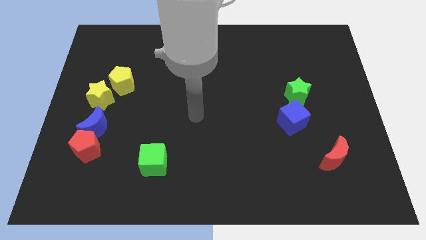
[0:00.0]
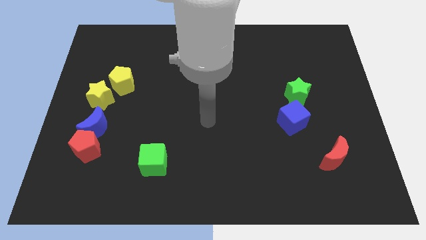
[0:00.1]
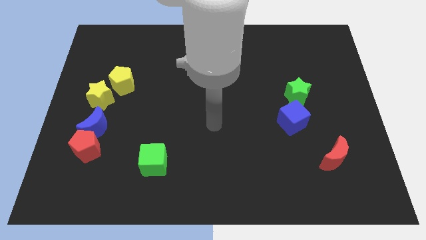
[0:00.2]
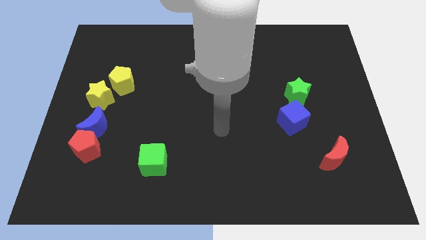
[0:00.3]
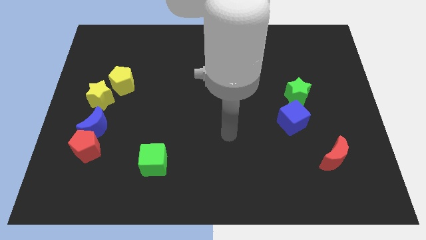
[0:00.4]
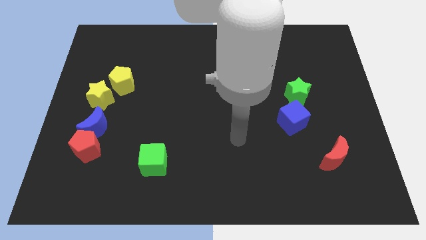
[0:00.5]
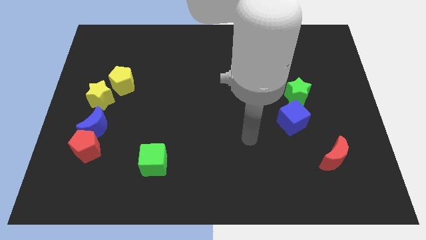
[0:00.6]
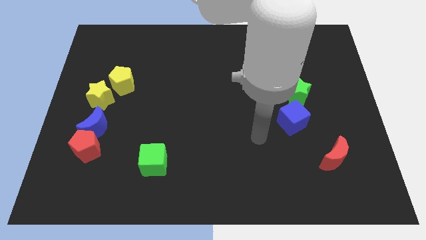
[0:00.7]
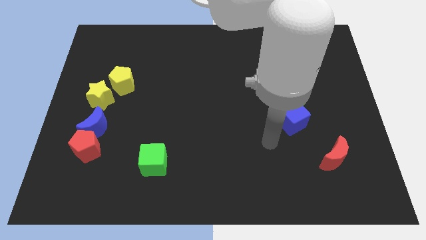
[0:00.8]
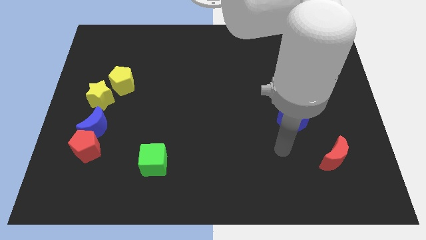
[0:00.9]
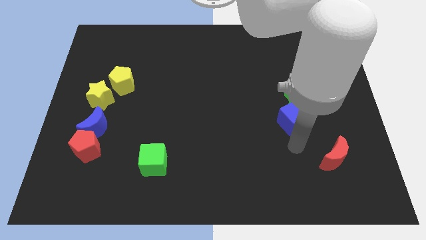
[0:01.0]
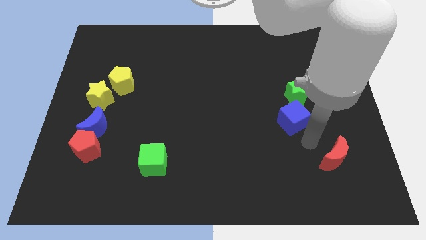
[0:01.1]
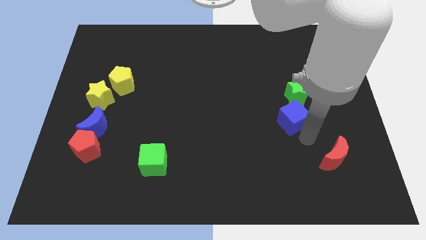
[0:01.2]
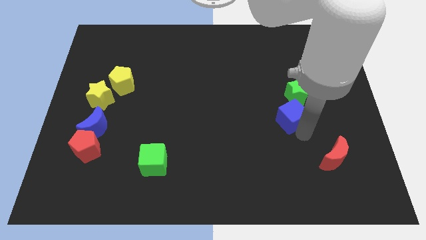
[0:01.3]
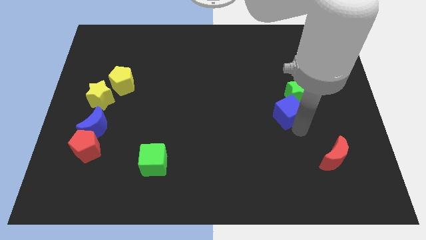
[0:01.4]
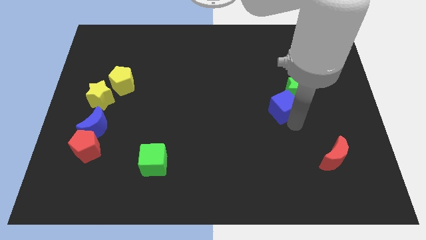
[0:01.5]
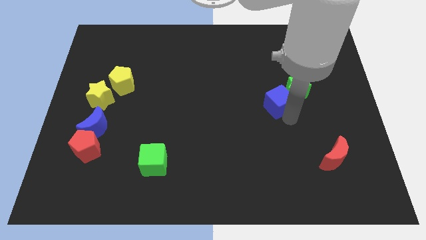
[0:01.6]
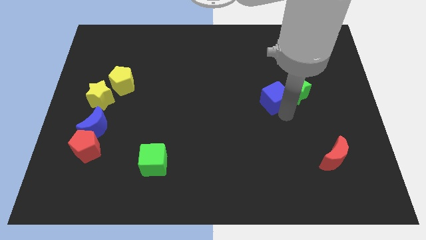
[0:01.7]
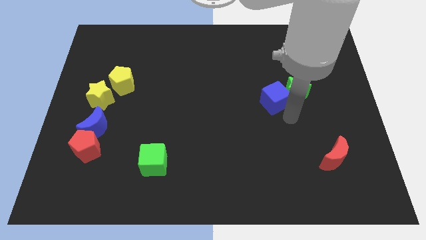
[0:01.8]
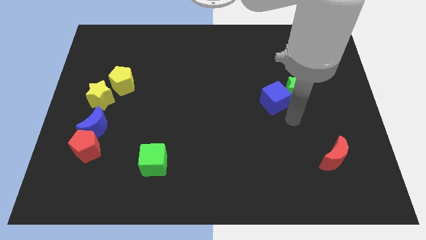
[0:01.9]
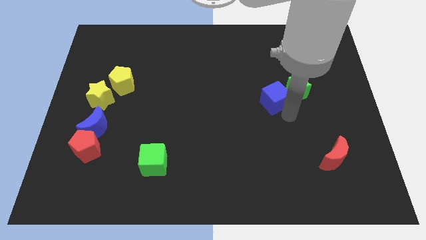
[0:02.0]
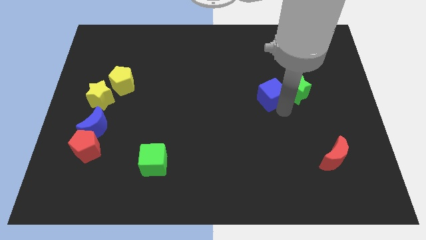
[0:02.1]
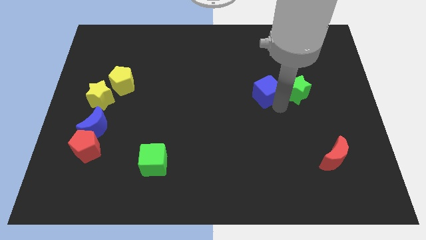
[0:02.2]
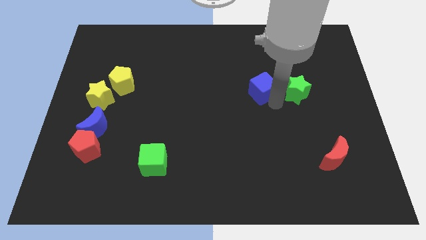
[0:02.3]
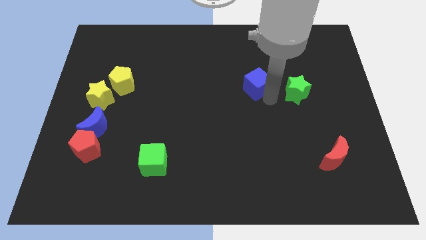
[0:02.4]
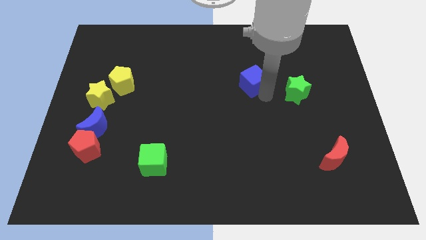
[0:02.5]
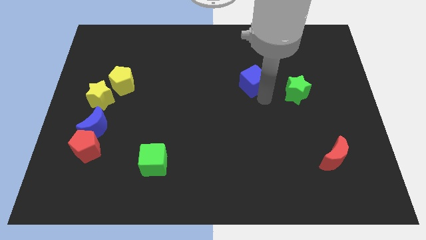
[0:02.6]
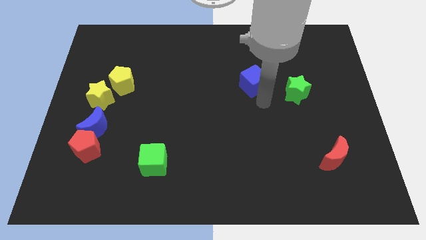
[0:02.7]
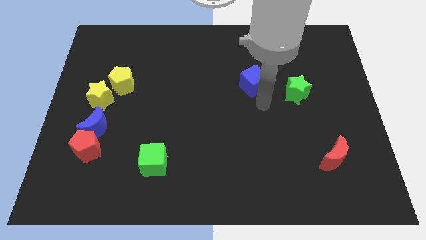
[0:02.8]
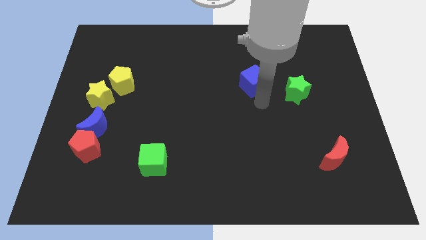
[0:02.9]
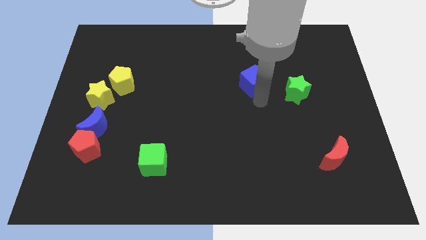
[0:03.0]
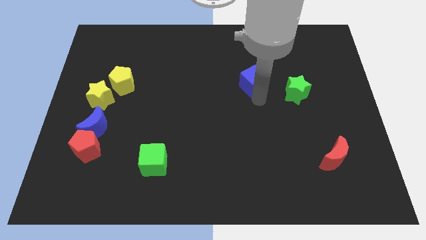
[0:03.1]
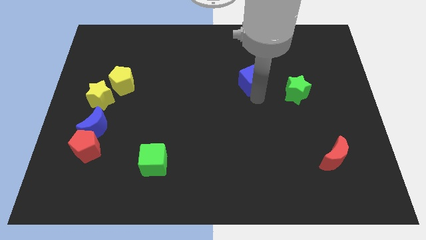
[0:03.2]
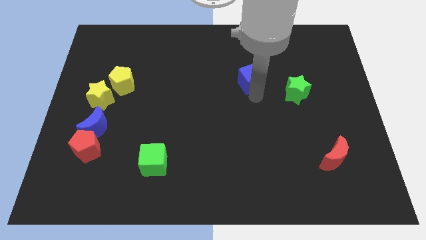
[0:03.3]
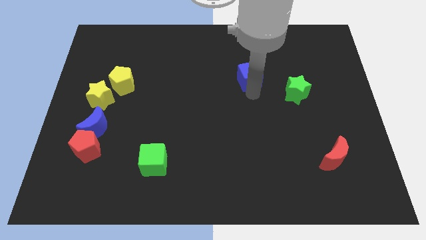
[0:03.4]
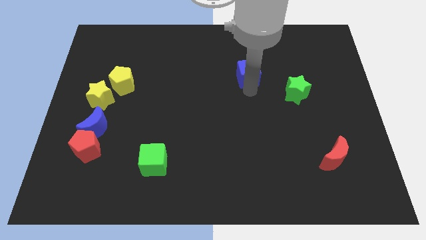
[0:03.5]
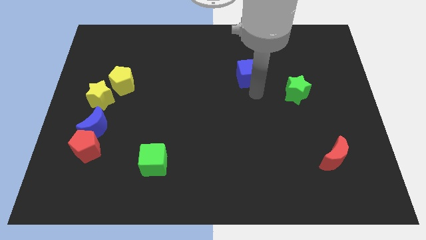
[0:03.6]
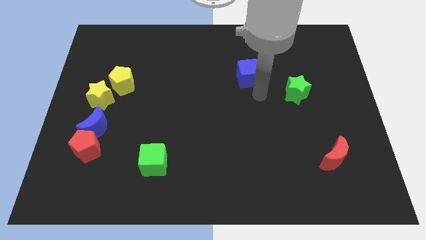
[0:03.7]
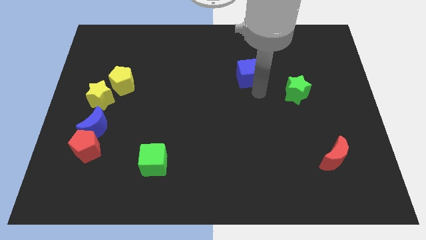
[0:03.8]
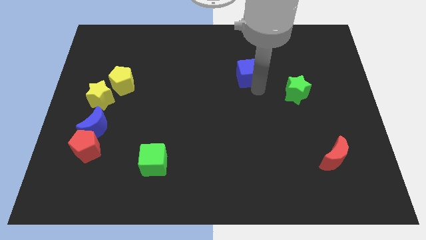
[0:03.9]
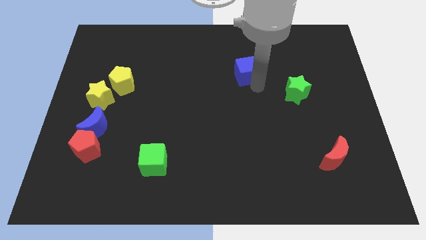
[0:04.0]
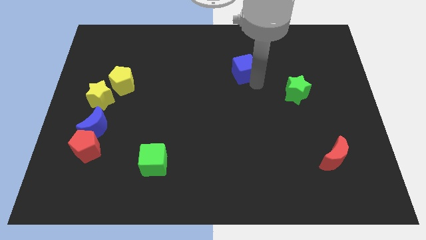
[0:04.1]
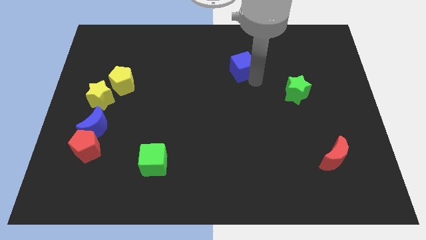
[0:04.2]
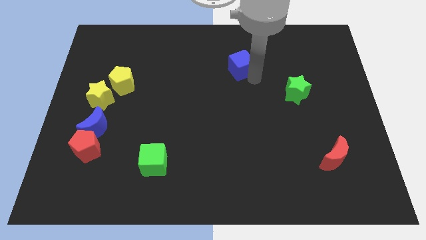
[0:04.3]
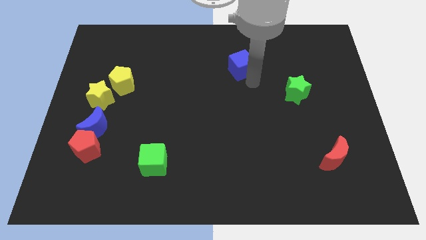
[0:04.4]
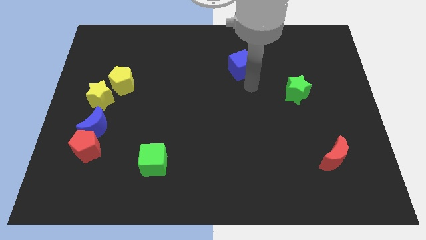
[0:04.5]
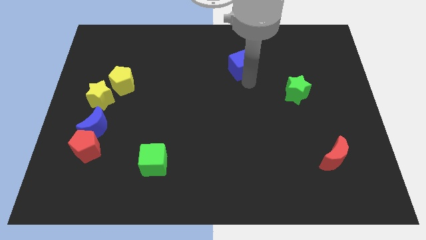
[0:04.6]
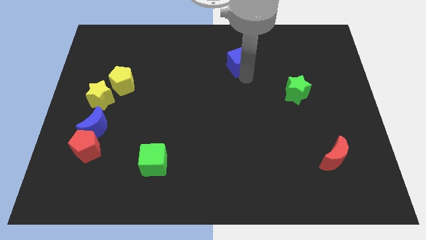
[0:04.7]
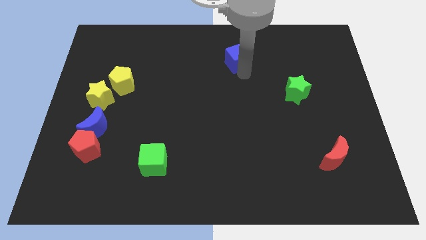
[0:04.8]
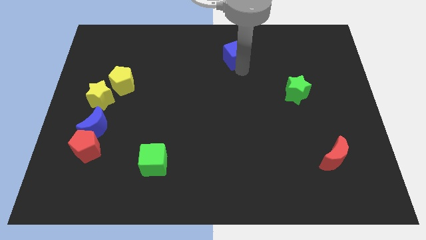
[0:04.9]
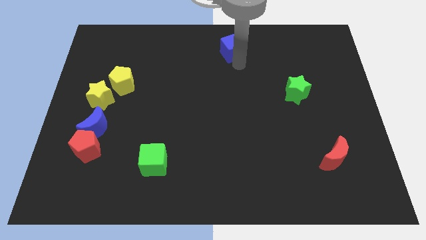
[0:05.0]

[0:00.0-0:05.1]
put the blue cube to the towards your base

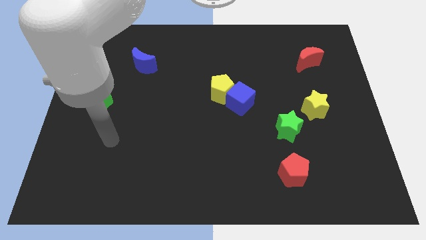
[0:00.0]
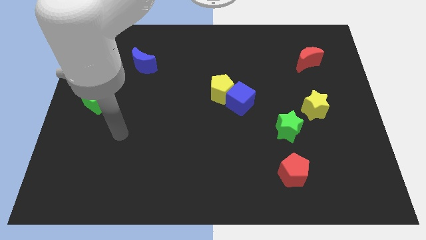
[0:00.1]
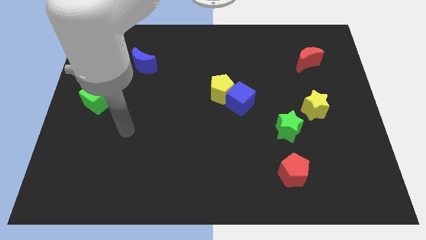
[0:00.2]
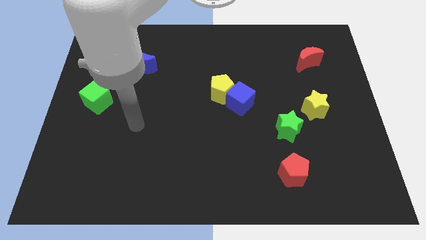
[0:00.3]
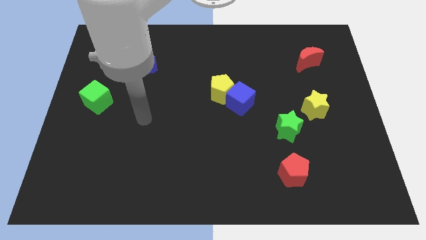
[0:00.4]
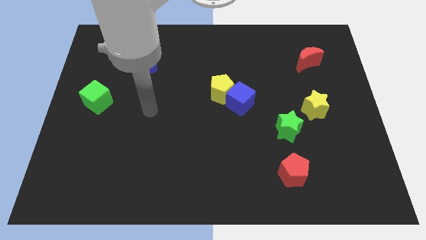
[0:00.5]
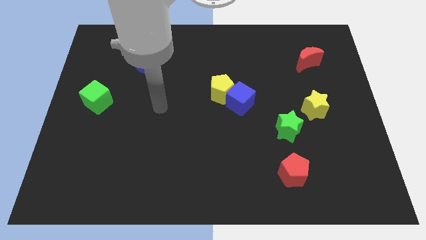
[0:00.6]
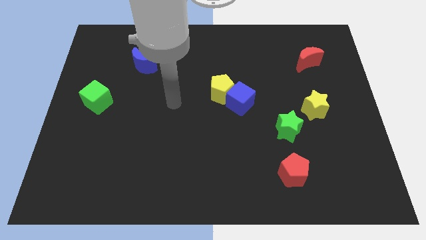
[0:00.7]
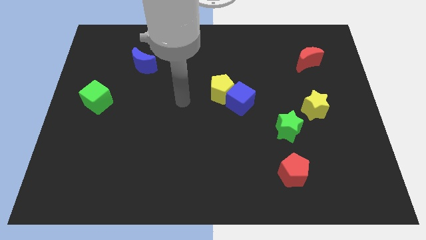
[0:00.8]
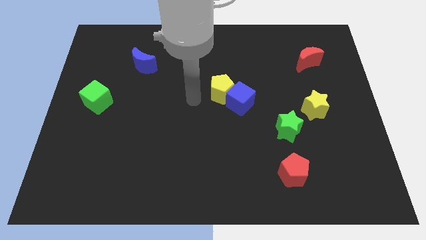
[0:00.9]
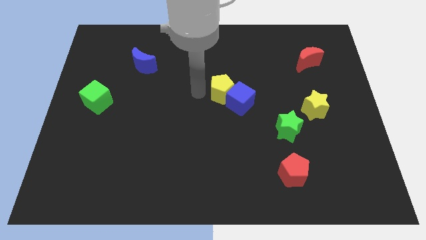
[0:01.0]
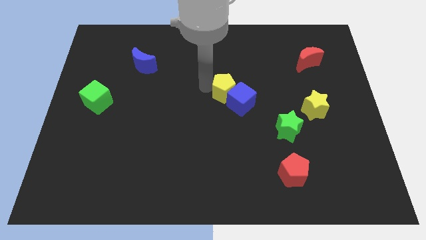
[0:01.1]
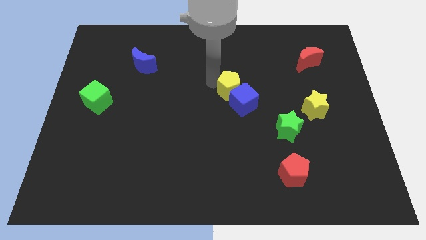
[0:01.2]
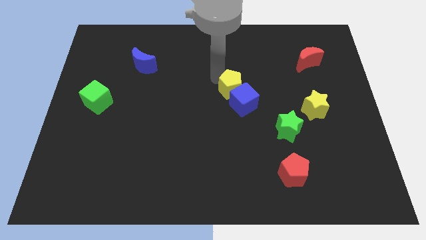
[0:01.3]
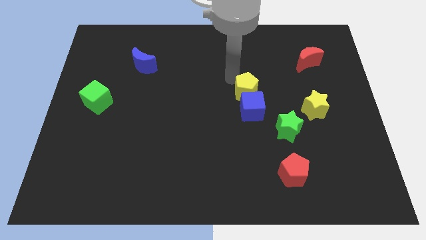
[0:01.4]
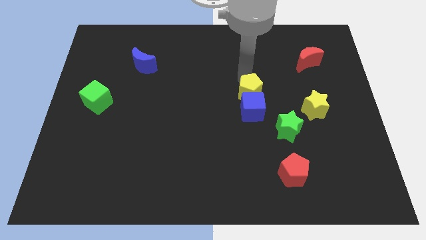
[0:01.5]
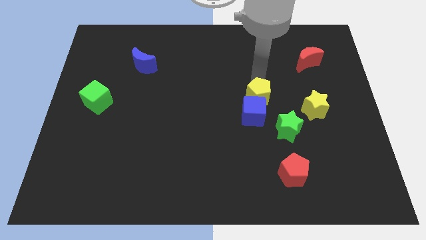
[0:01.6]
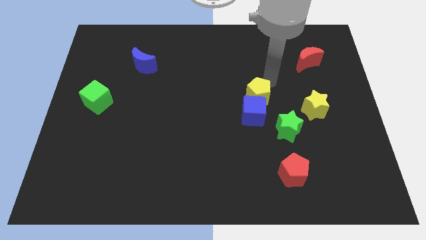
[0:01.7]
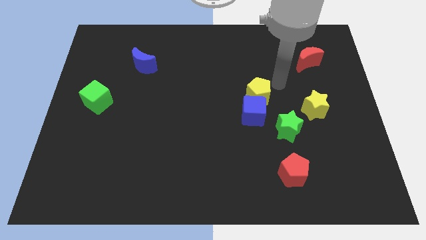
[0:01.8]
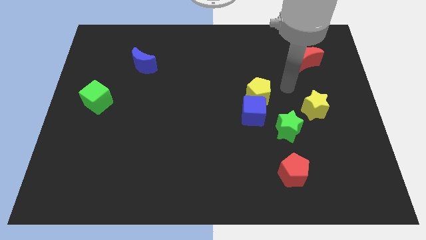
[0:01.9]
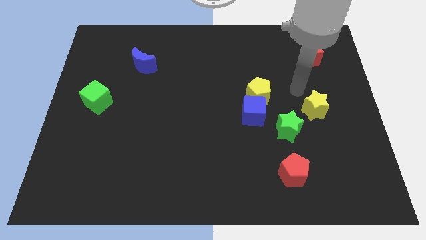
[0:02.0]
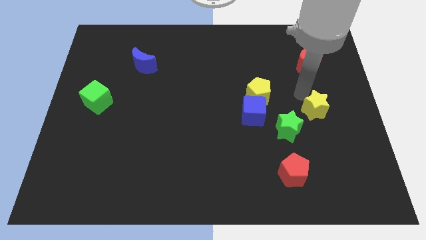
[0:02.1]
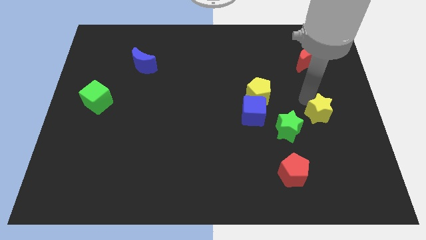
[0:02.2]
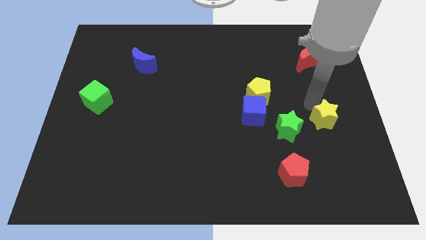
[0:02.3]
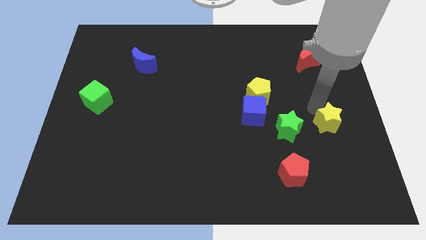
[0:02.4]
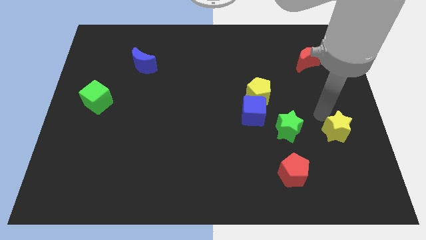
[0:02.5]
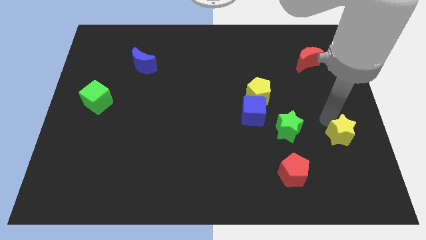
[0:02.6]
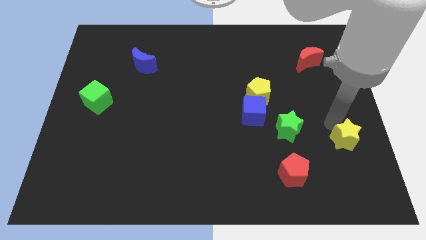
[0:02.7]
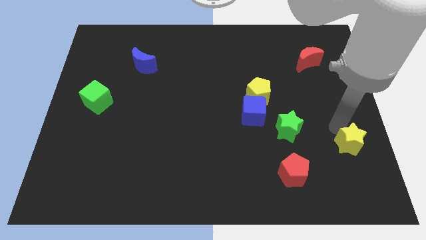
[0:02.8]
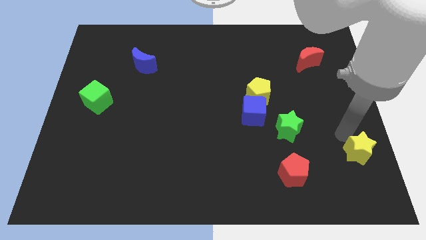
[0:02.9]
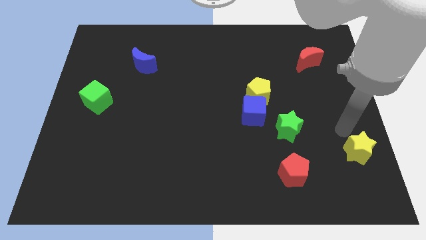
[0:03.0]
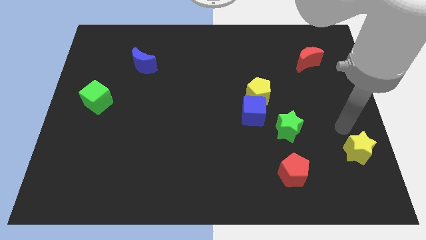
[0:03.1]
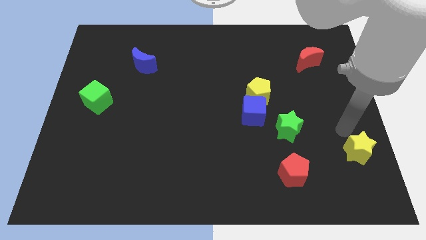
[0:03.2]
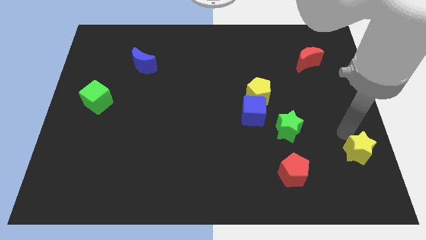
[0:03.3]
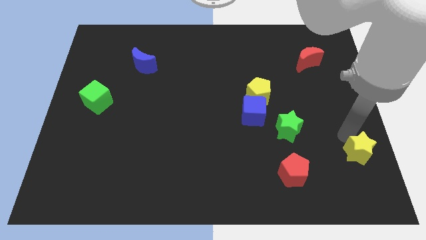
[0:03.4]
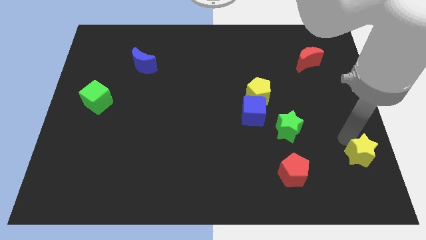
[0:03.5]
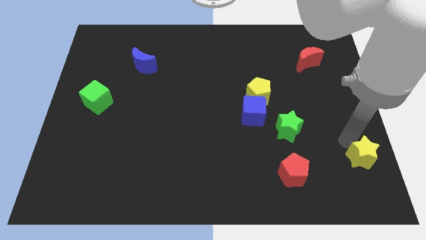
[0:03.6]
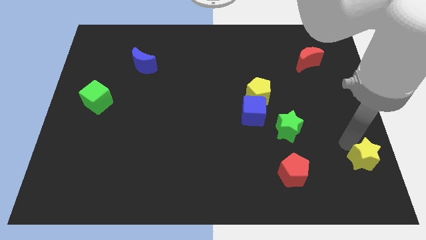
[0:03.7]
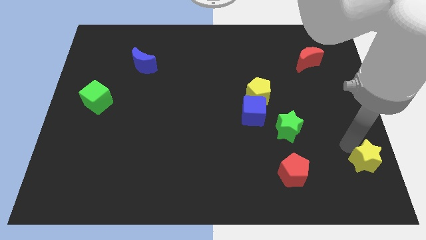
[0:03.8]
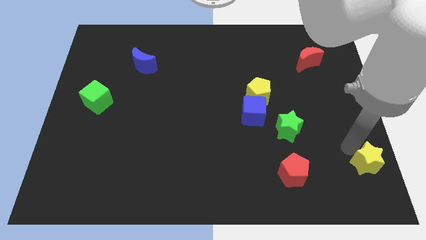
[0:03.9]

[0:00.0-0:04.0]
move the yellow star to the lower right corner
